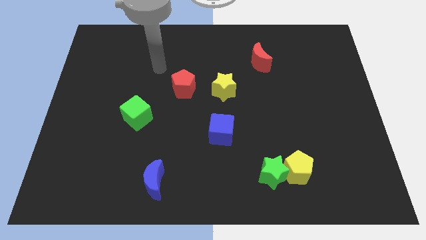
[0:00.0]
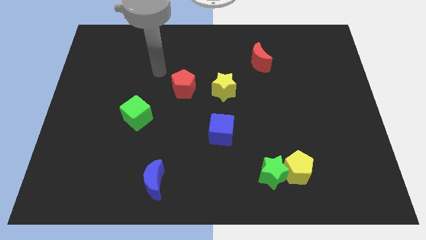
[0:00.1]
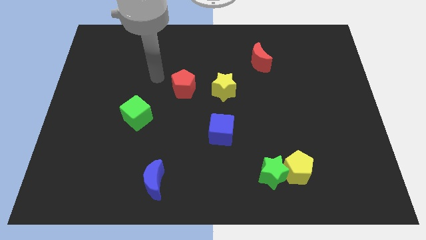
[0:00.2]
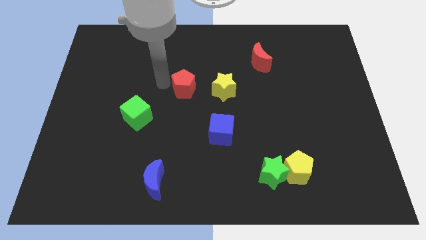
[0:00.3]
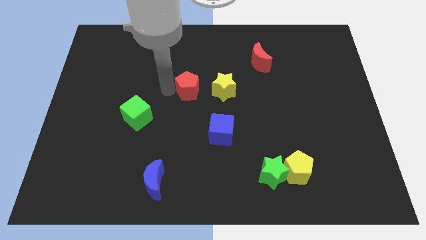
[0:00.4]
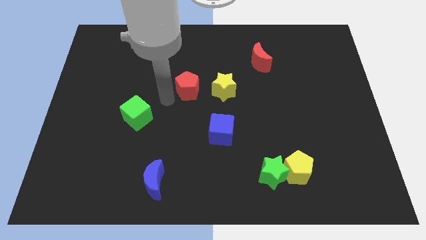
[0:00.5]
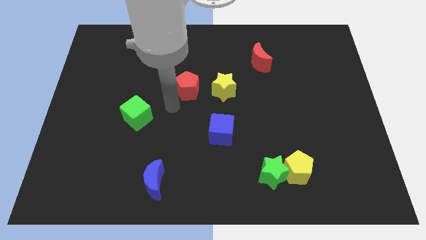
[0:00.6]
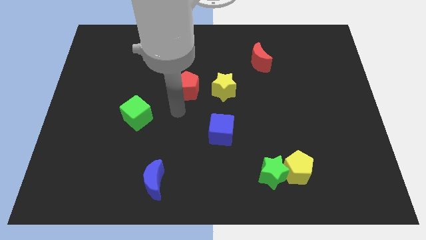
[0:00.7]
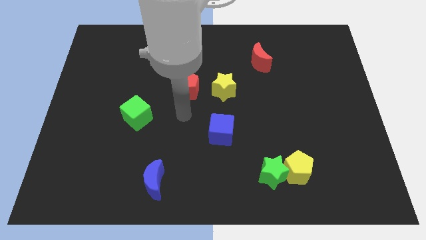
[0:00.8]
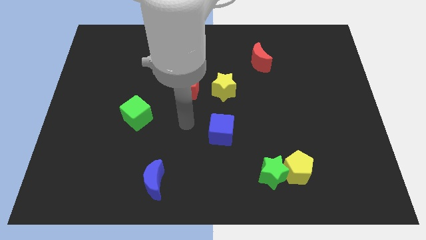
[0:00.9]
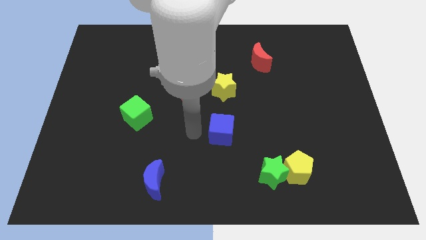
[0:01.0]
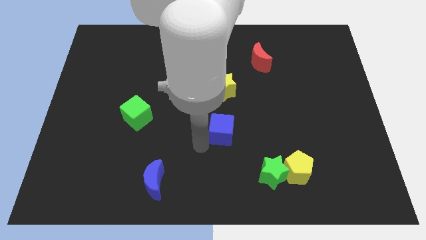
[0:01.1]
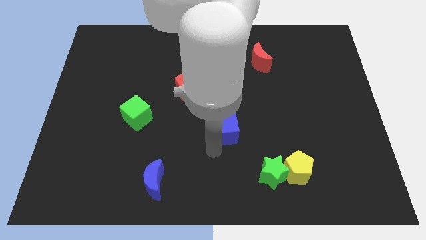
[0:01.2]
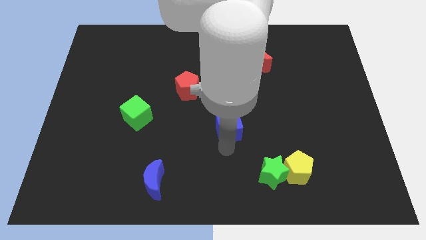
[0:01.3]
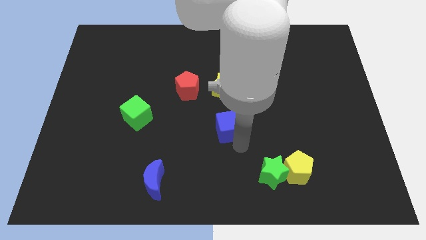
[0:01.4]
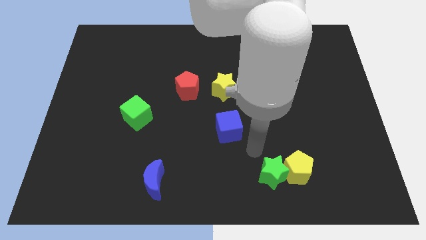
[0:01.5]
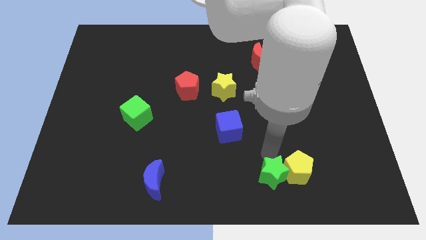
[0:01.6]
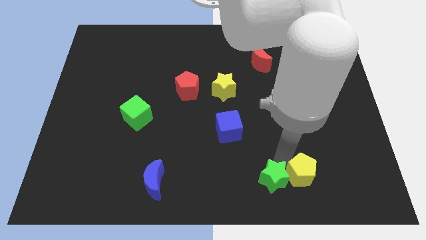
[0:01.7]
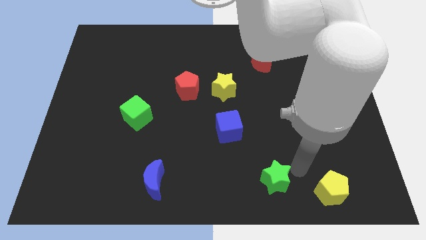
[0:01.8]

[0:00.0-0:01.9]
move the green star away from the yellow pentagon

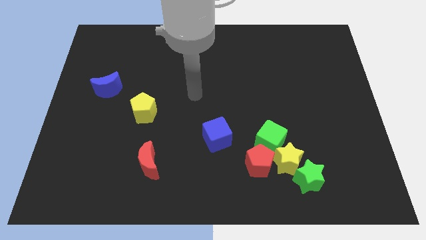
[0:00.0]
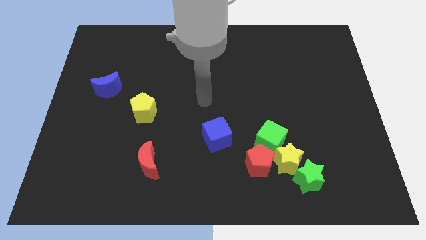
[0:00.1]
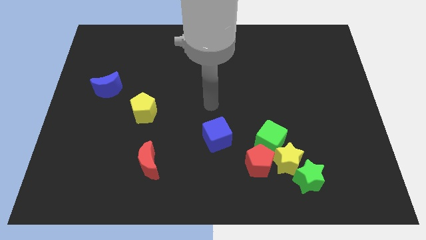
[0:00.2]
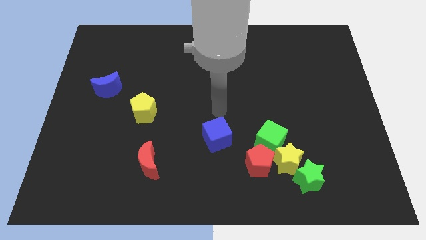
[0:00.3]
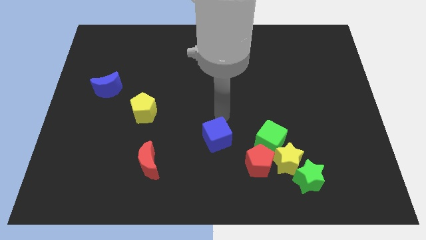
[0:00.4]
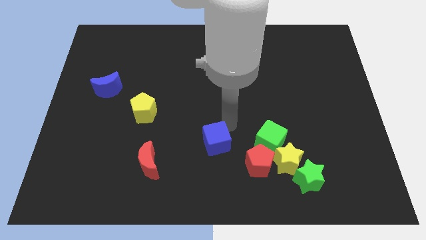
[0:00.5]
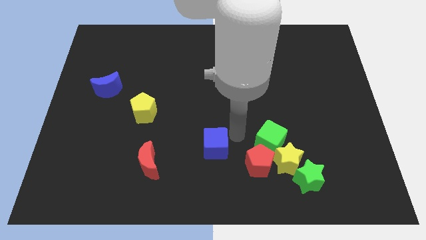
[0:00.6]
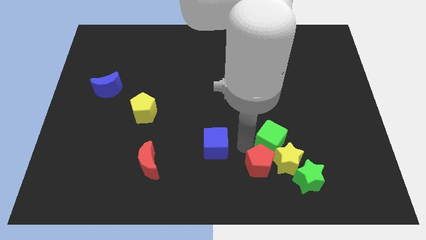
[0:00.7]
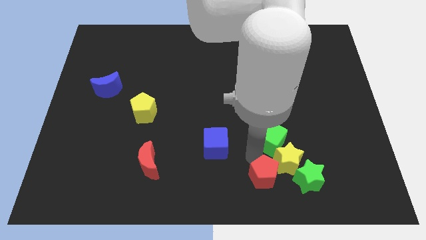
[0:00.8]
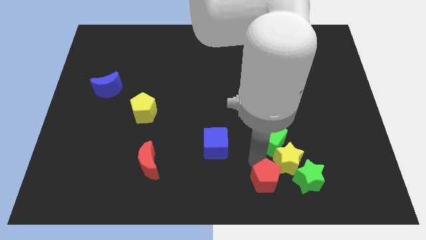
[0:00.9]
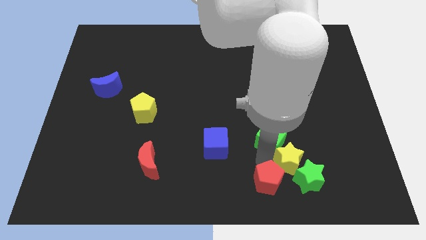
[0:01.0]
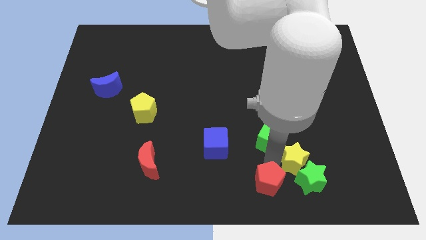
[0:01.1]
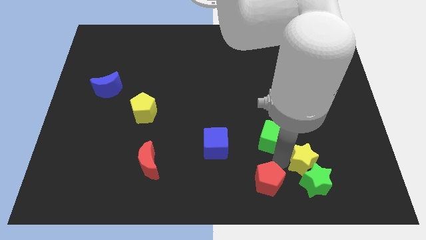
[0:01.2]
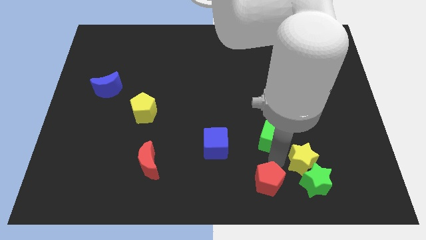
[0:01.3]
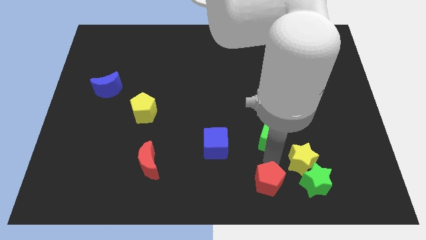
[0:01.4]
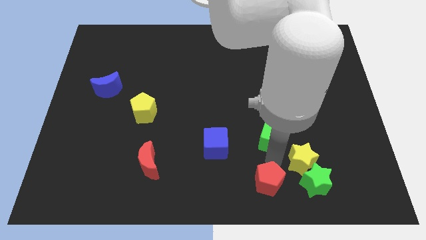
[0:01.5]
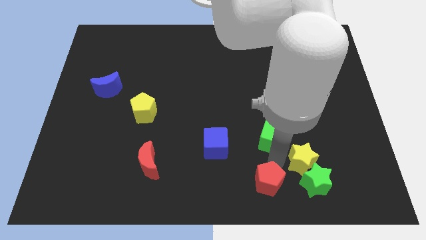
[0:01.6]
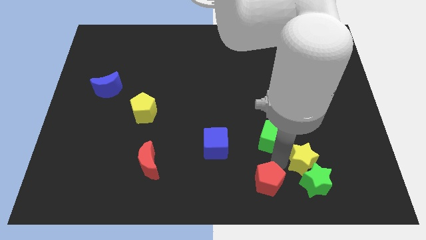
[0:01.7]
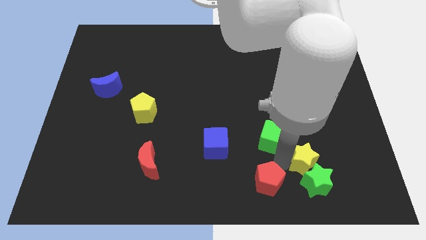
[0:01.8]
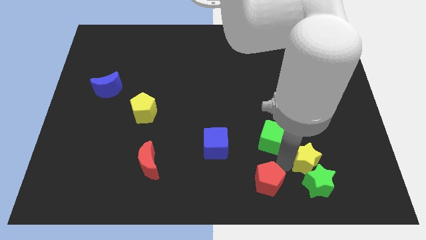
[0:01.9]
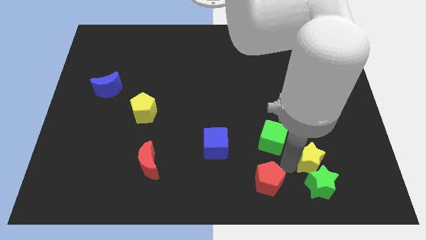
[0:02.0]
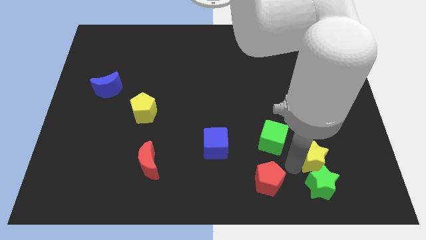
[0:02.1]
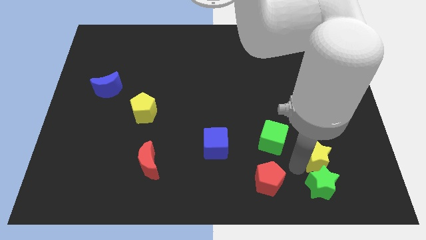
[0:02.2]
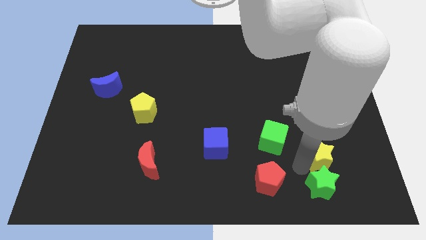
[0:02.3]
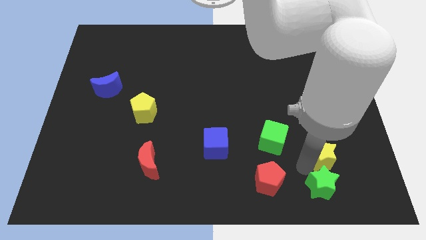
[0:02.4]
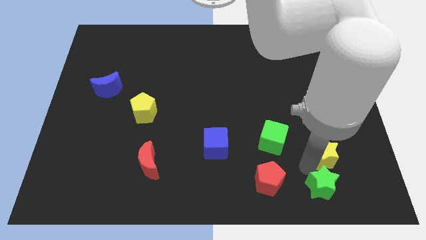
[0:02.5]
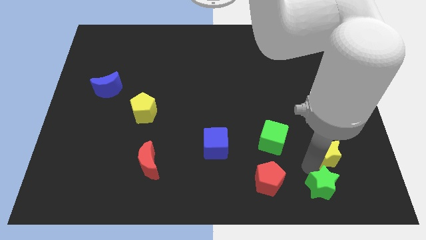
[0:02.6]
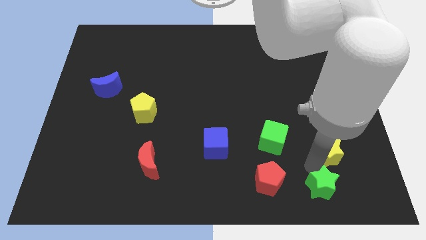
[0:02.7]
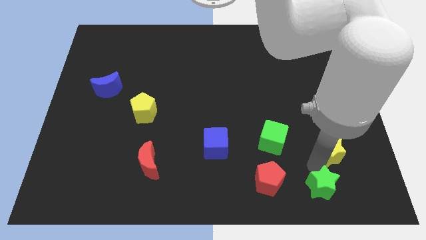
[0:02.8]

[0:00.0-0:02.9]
separate the yellow star from the green star, green cube, and red pentagon

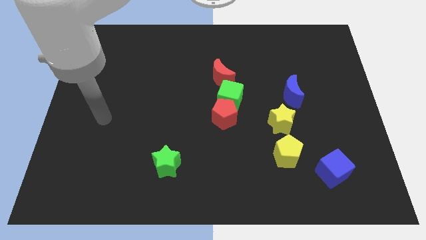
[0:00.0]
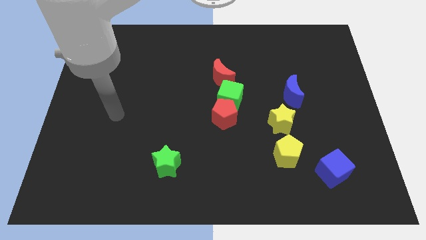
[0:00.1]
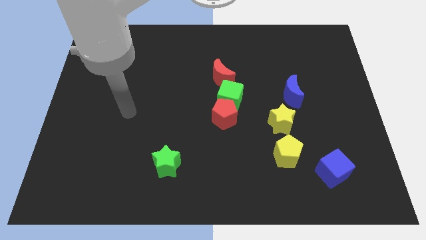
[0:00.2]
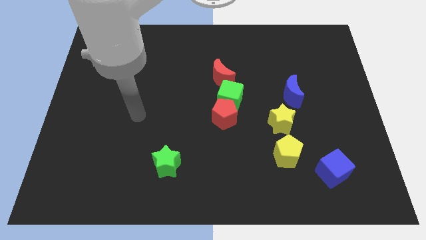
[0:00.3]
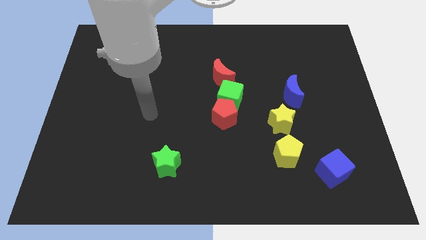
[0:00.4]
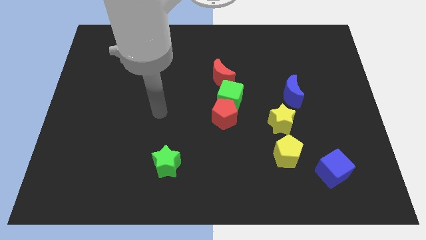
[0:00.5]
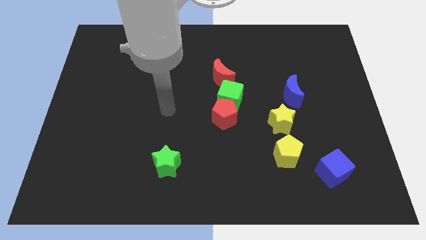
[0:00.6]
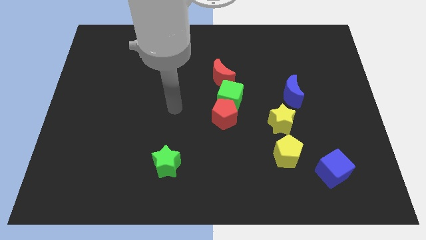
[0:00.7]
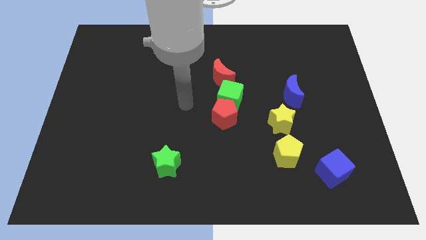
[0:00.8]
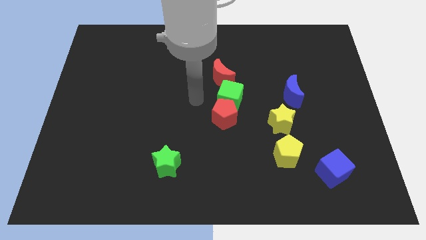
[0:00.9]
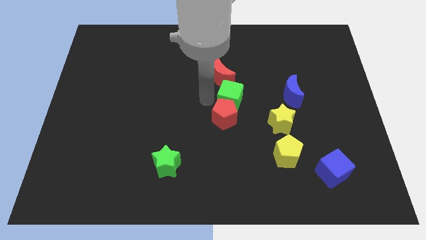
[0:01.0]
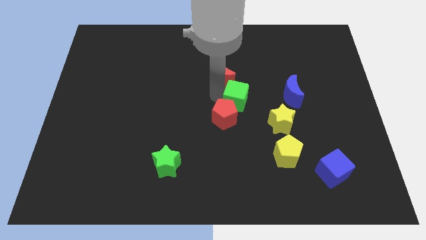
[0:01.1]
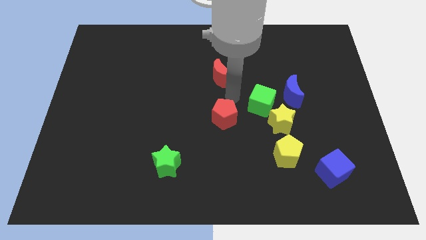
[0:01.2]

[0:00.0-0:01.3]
separate the red pentagon from the green cube

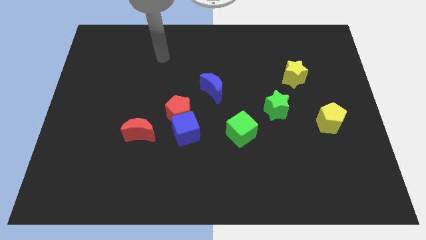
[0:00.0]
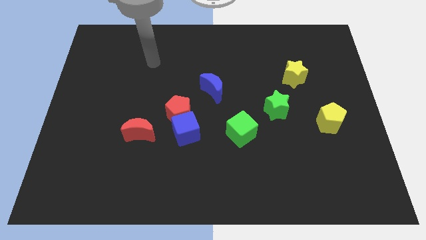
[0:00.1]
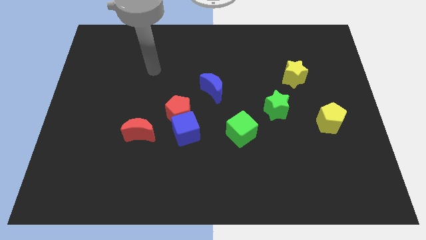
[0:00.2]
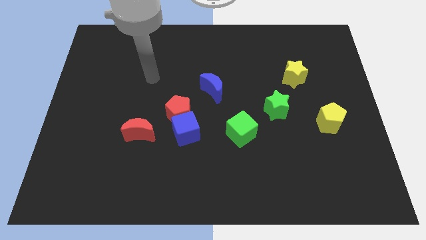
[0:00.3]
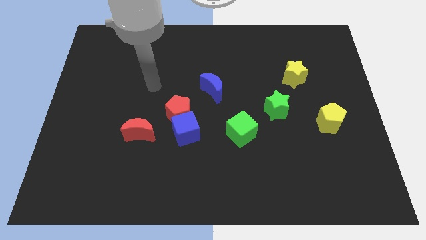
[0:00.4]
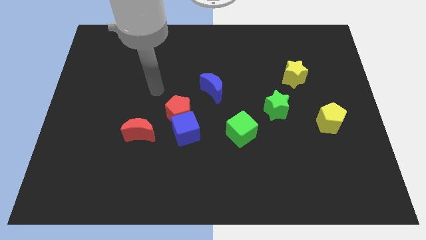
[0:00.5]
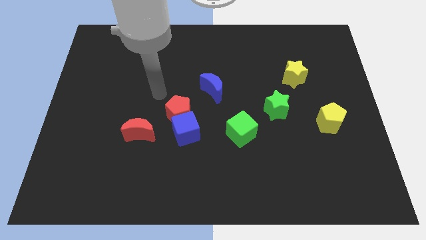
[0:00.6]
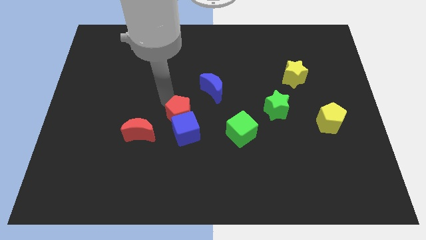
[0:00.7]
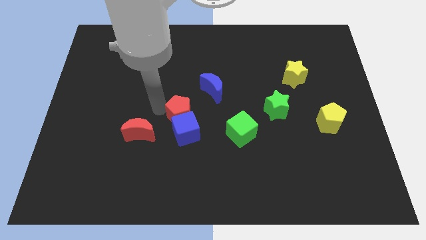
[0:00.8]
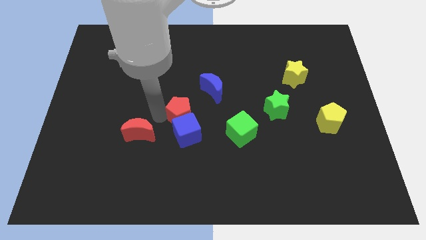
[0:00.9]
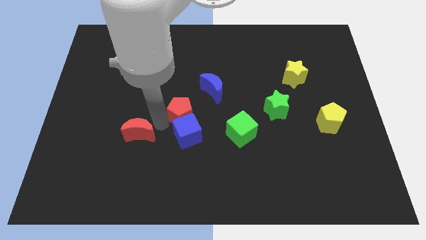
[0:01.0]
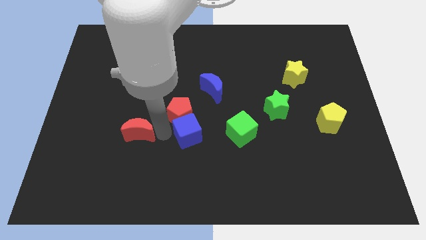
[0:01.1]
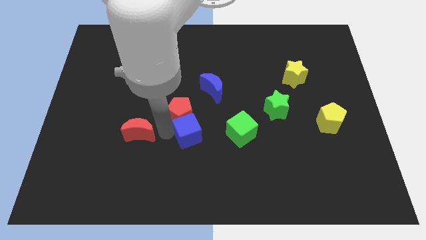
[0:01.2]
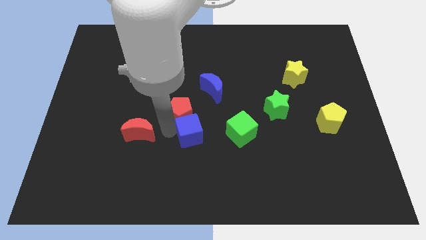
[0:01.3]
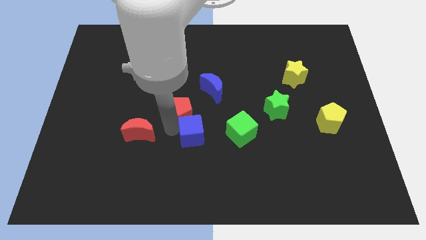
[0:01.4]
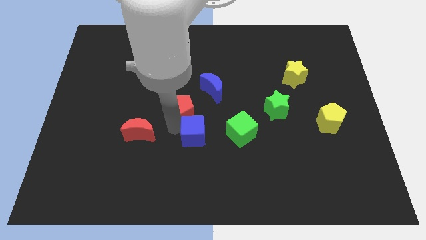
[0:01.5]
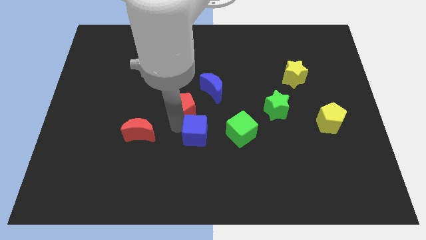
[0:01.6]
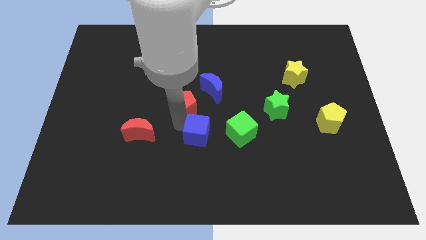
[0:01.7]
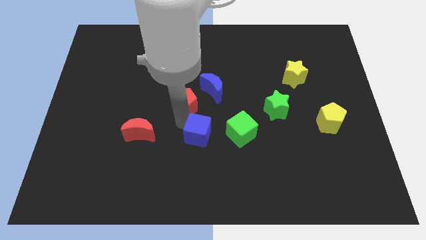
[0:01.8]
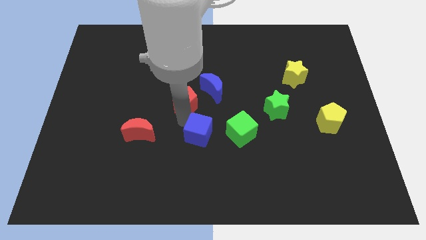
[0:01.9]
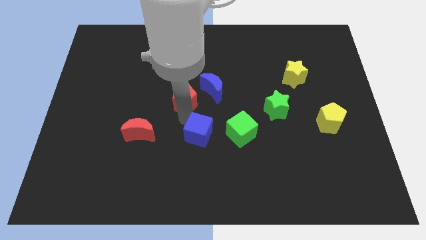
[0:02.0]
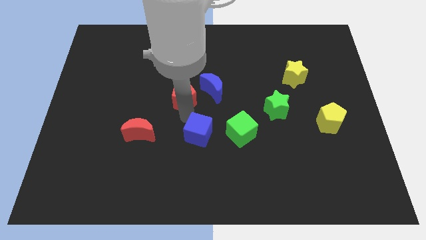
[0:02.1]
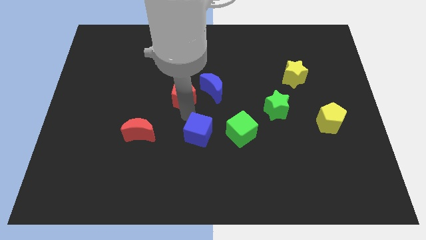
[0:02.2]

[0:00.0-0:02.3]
separate the red pentagon from the blue cube and red moon

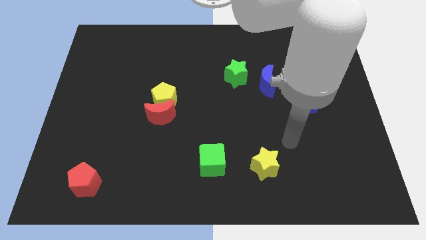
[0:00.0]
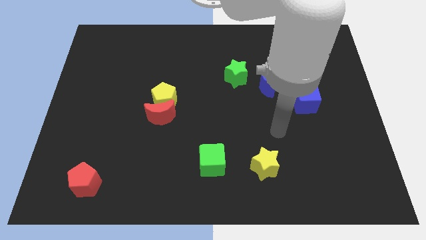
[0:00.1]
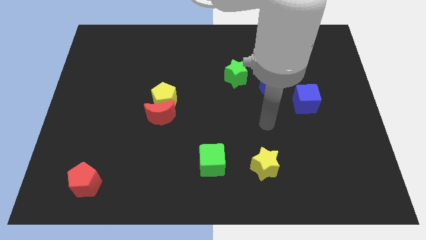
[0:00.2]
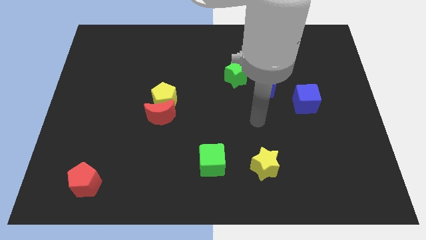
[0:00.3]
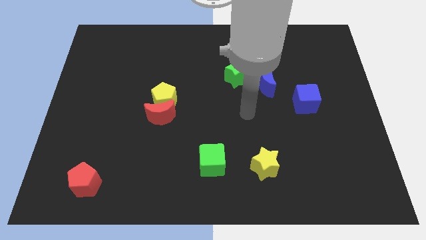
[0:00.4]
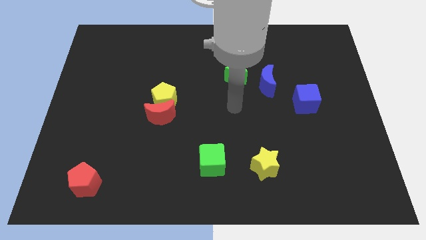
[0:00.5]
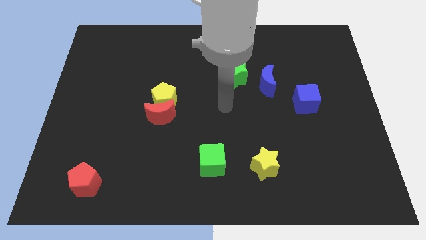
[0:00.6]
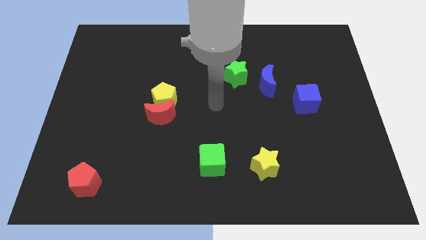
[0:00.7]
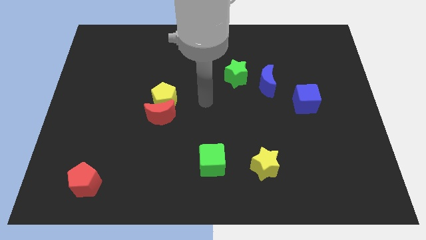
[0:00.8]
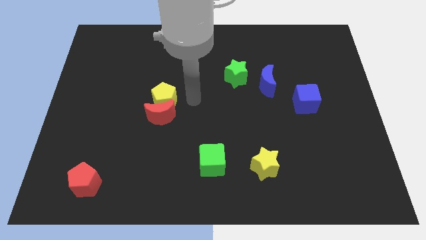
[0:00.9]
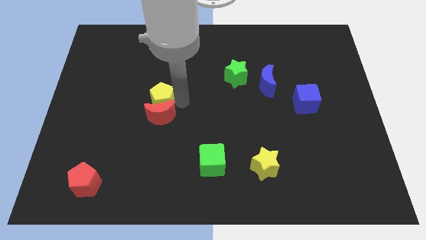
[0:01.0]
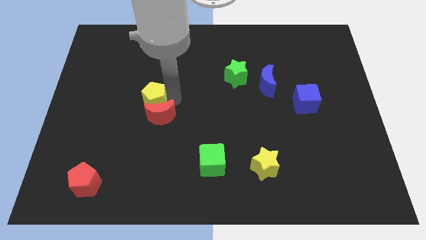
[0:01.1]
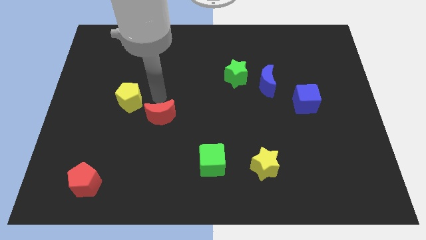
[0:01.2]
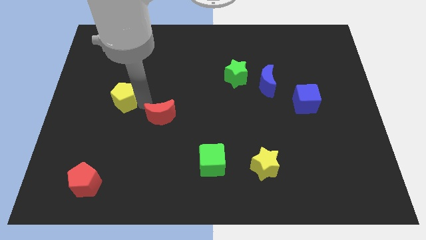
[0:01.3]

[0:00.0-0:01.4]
separate the red moon from the yellow pentagon
